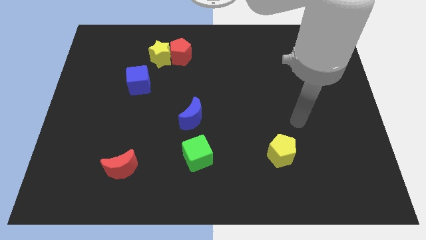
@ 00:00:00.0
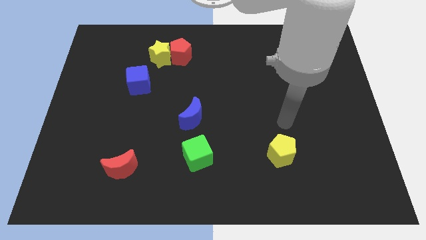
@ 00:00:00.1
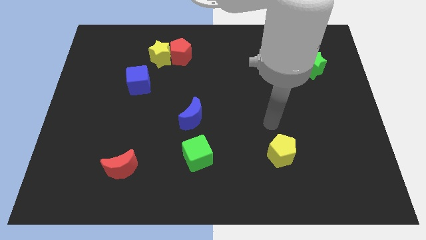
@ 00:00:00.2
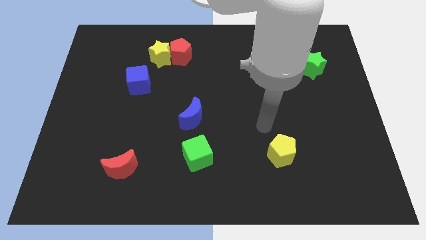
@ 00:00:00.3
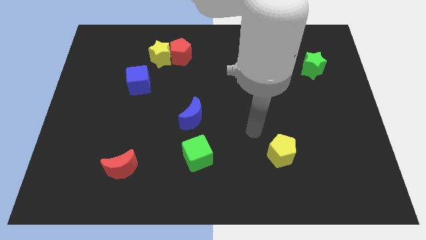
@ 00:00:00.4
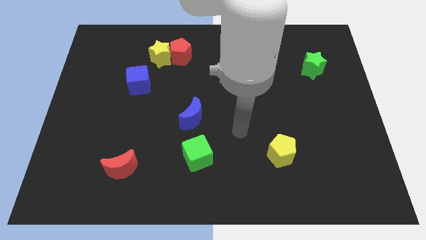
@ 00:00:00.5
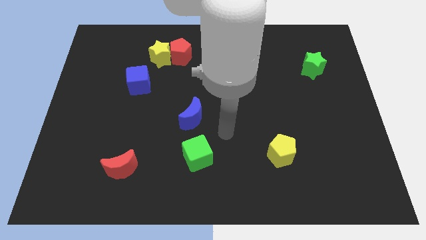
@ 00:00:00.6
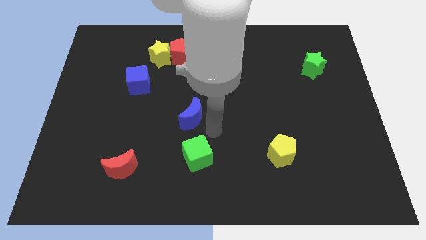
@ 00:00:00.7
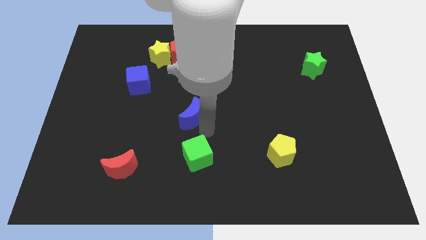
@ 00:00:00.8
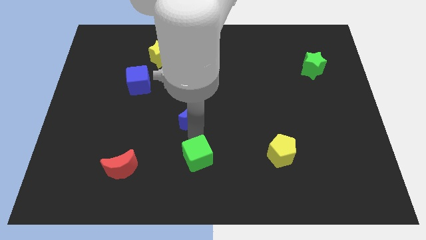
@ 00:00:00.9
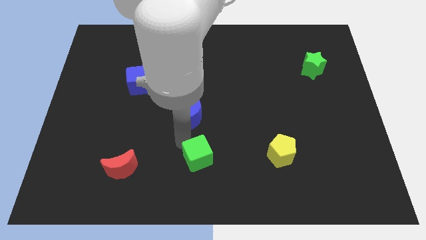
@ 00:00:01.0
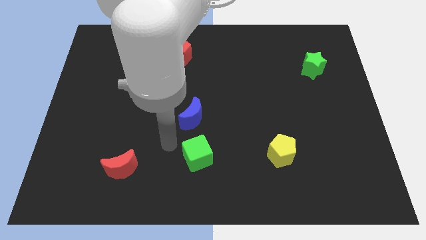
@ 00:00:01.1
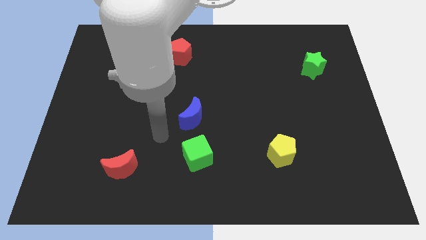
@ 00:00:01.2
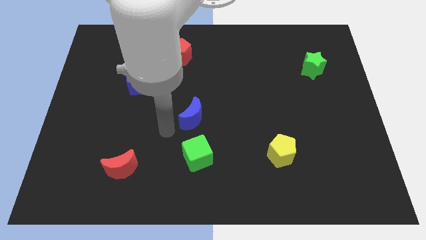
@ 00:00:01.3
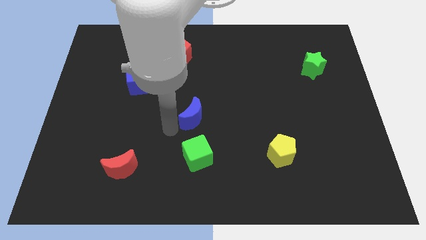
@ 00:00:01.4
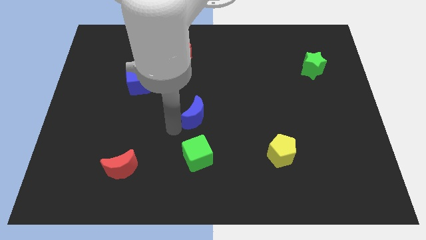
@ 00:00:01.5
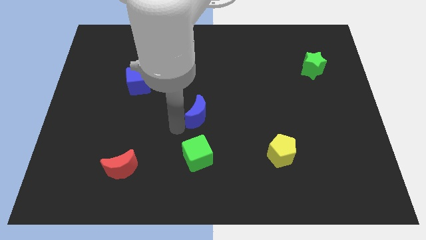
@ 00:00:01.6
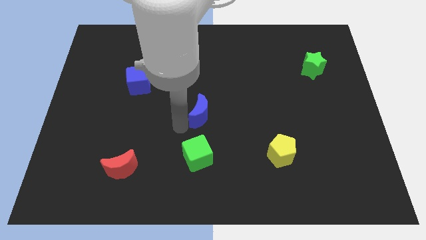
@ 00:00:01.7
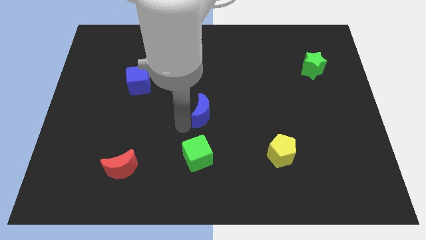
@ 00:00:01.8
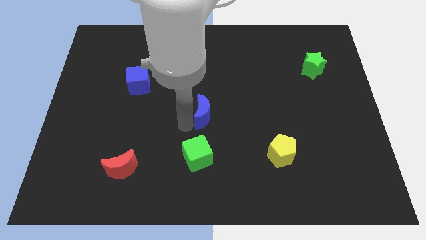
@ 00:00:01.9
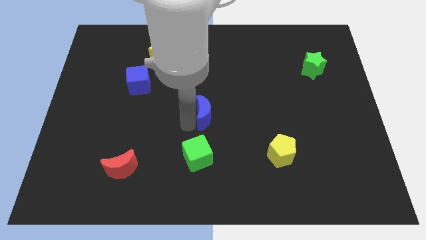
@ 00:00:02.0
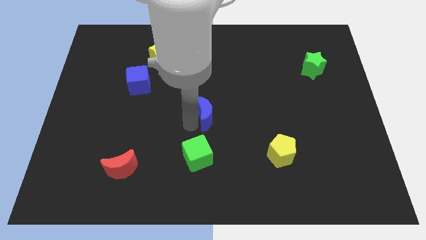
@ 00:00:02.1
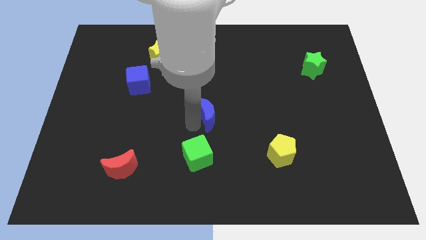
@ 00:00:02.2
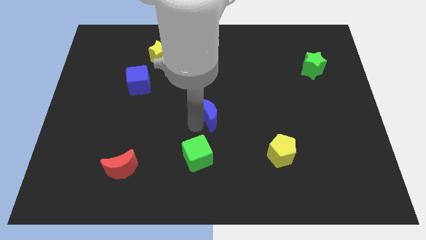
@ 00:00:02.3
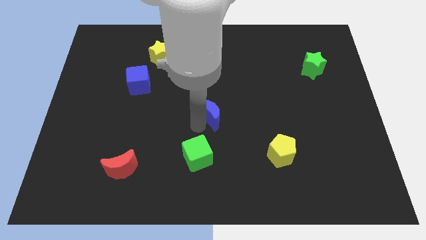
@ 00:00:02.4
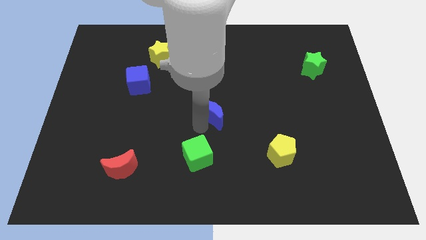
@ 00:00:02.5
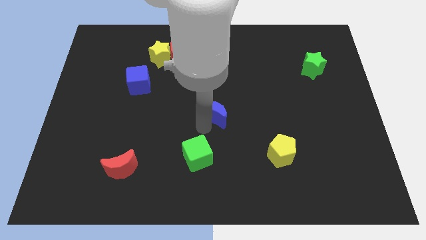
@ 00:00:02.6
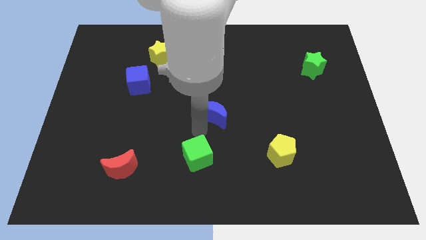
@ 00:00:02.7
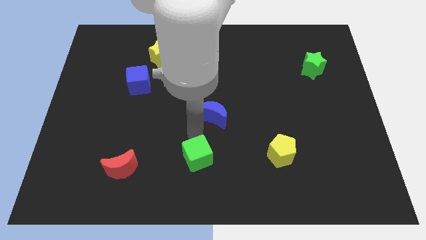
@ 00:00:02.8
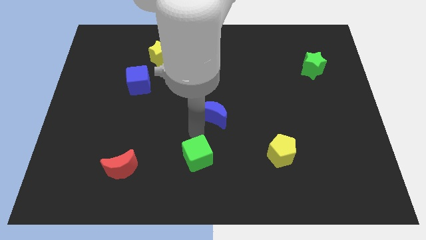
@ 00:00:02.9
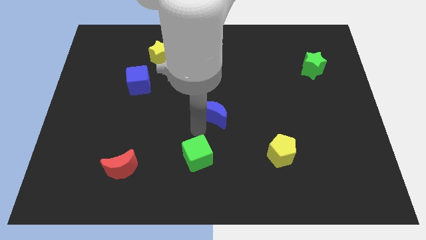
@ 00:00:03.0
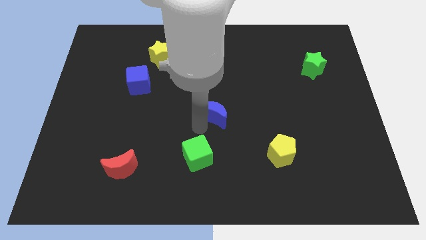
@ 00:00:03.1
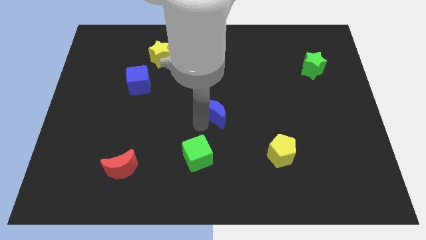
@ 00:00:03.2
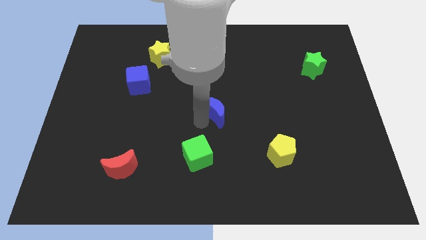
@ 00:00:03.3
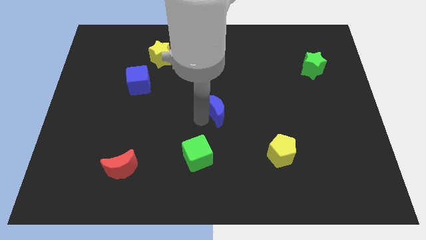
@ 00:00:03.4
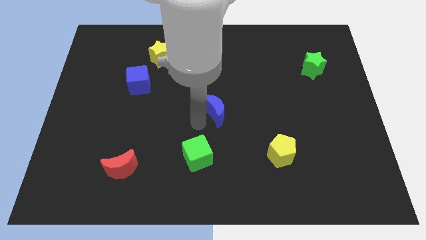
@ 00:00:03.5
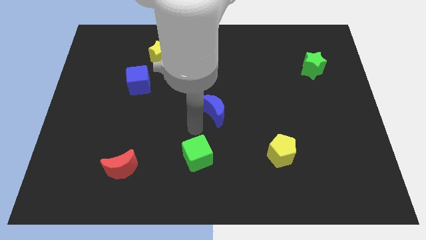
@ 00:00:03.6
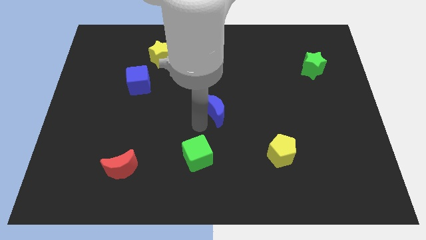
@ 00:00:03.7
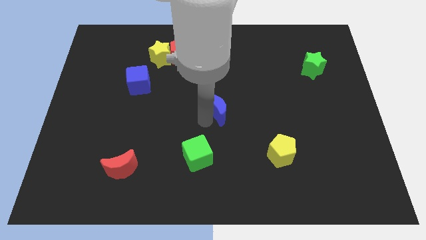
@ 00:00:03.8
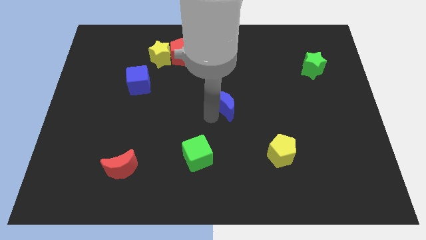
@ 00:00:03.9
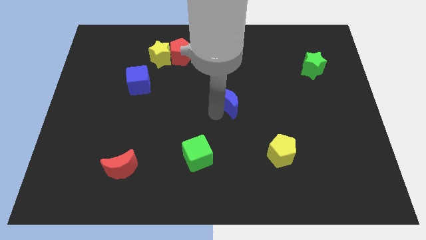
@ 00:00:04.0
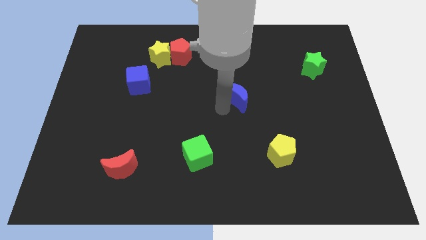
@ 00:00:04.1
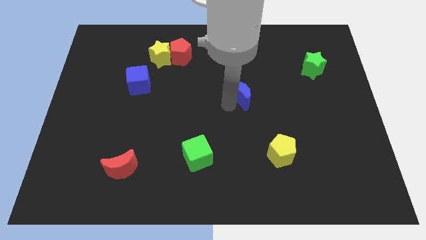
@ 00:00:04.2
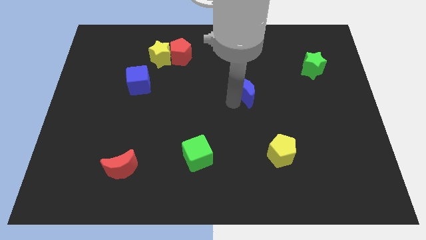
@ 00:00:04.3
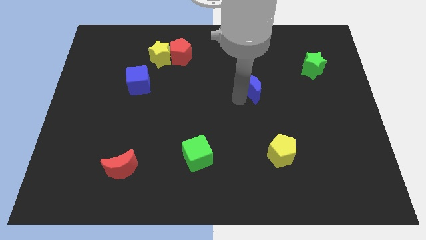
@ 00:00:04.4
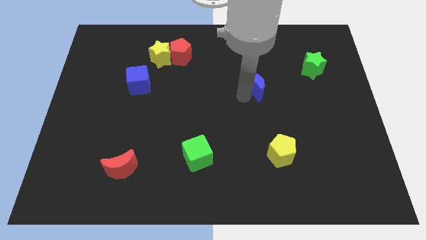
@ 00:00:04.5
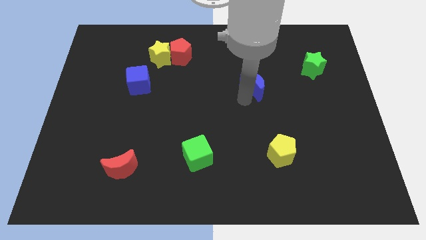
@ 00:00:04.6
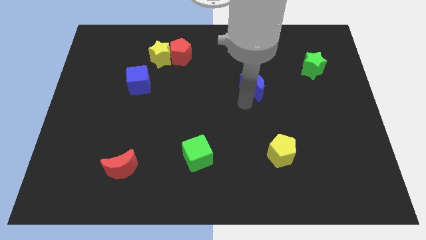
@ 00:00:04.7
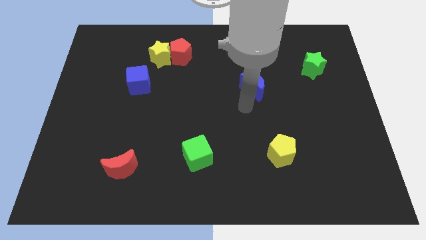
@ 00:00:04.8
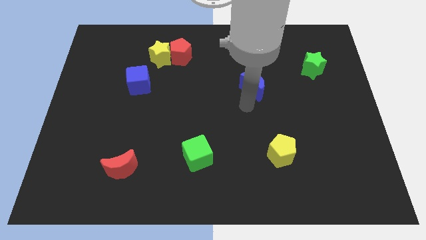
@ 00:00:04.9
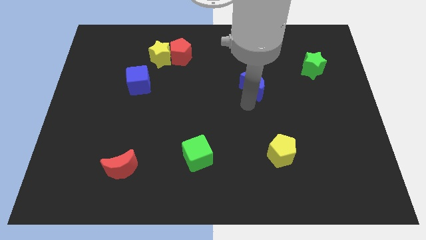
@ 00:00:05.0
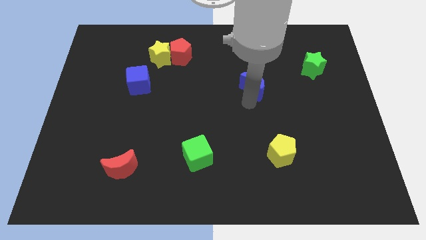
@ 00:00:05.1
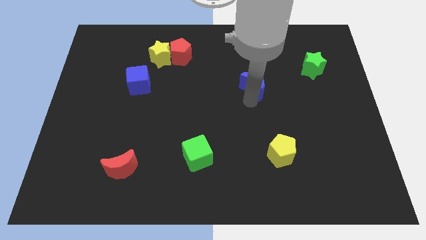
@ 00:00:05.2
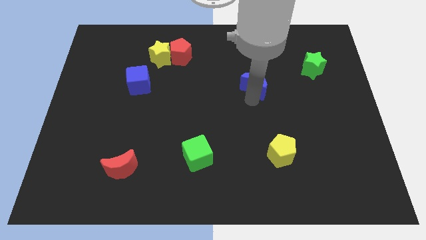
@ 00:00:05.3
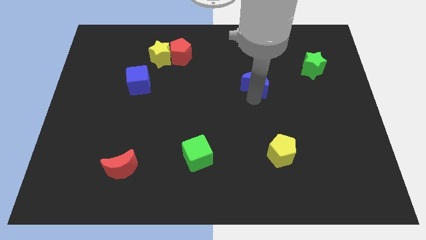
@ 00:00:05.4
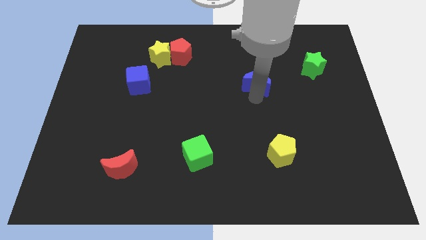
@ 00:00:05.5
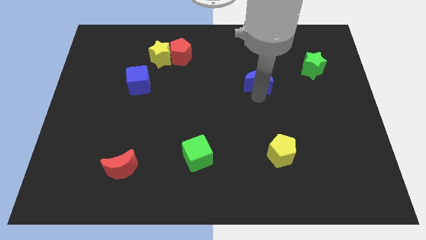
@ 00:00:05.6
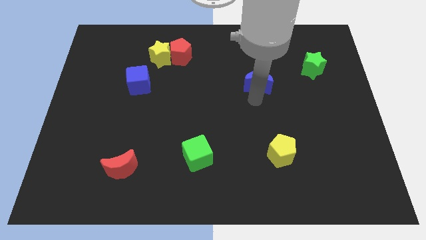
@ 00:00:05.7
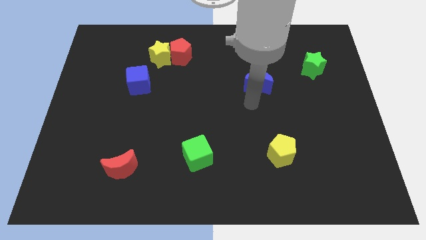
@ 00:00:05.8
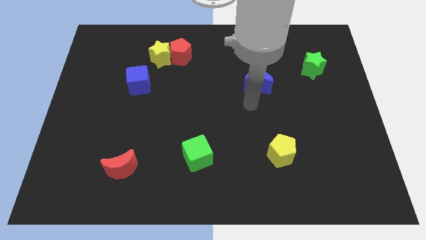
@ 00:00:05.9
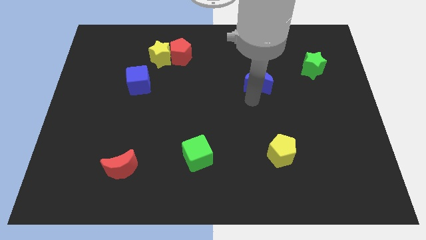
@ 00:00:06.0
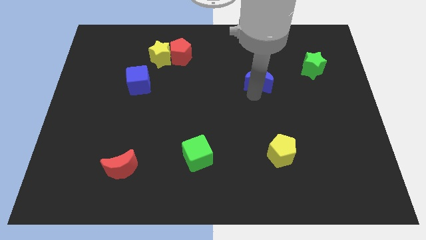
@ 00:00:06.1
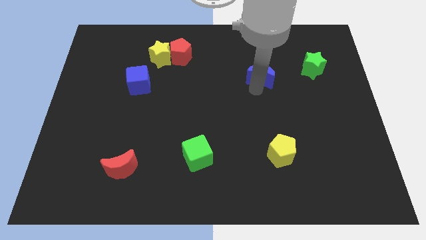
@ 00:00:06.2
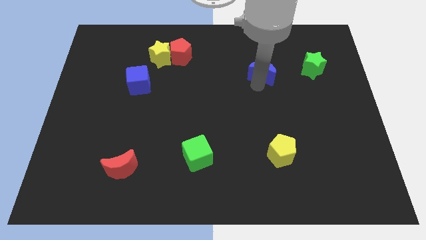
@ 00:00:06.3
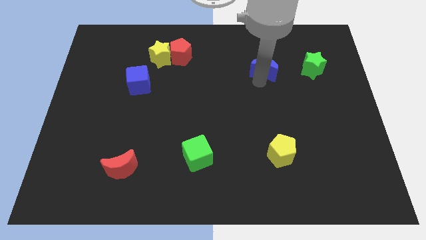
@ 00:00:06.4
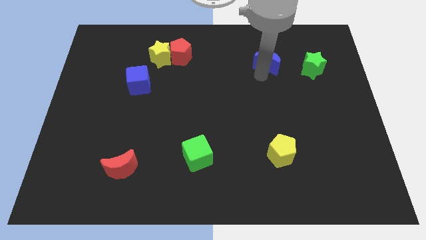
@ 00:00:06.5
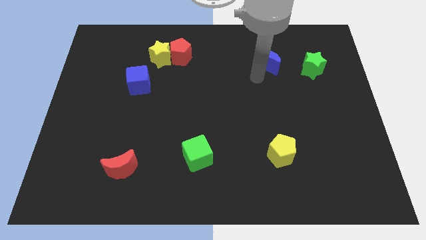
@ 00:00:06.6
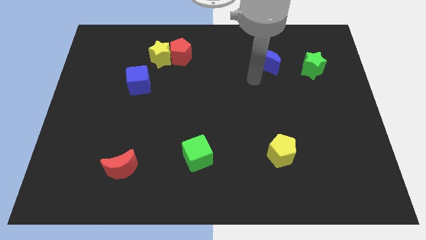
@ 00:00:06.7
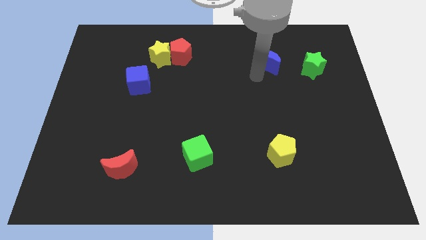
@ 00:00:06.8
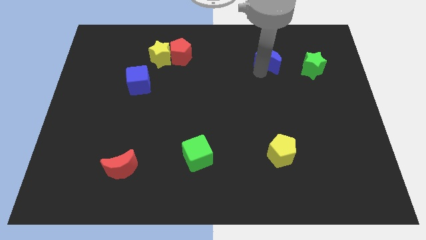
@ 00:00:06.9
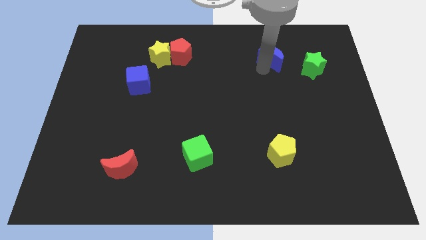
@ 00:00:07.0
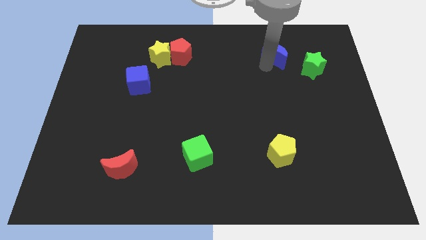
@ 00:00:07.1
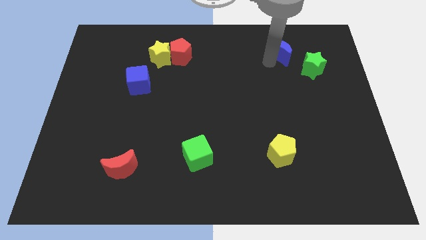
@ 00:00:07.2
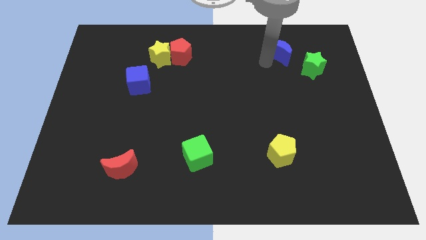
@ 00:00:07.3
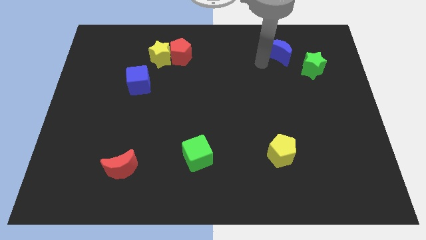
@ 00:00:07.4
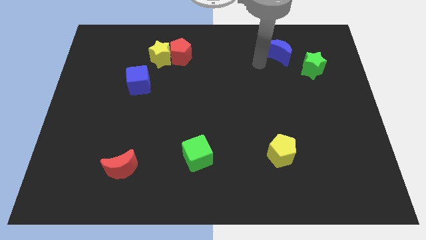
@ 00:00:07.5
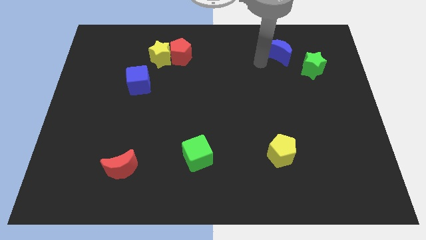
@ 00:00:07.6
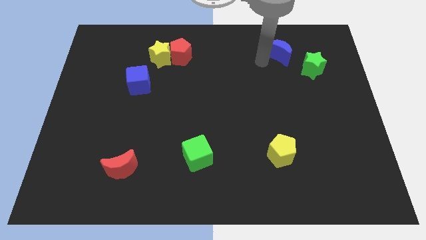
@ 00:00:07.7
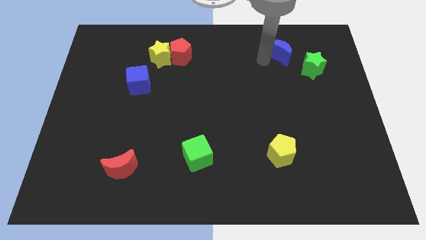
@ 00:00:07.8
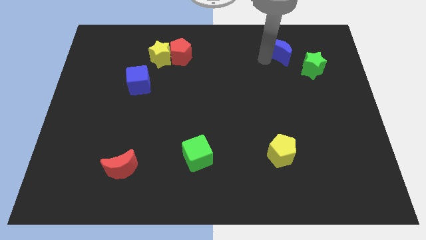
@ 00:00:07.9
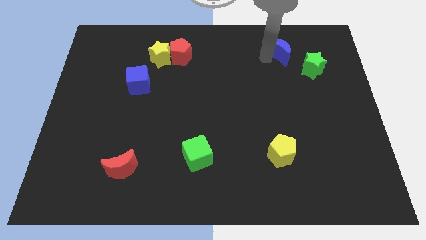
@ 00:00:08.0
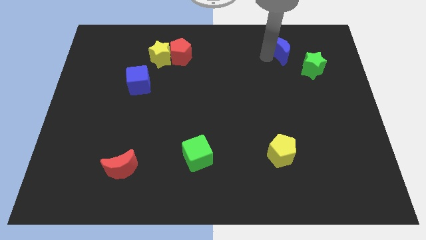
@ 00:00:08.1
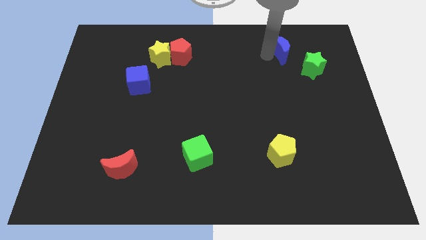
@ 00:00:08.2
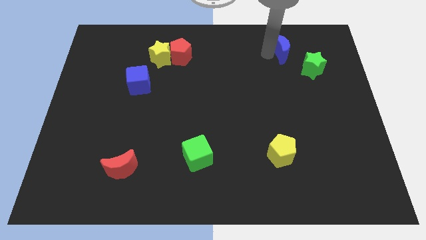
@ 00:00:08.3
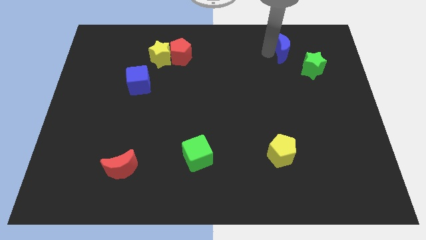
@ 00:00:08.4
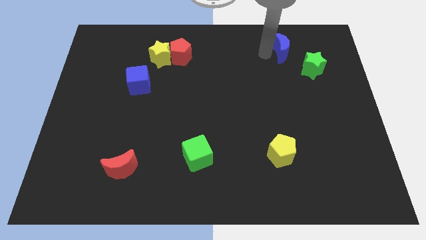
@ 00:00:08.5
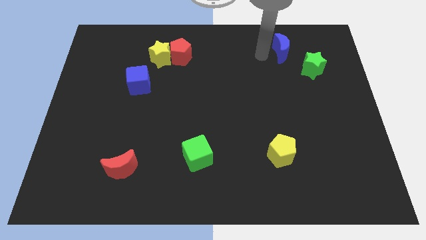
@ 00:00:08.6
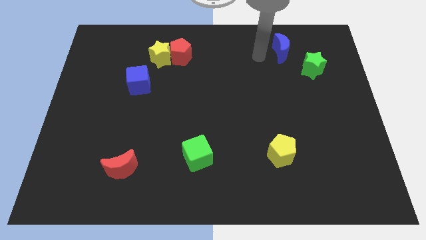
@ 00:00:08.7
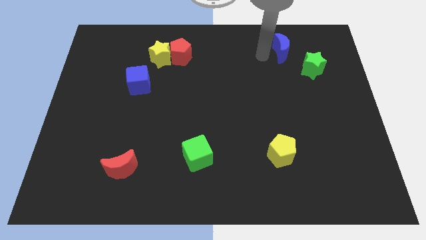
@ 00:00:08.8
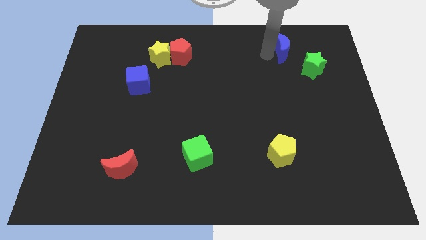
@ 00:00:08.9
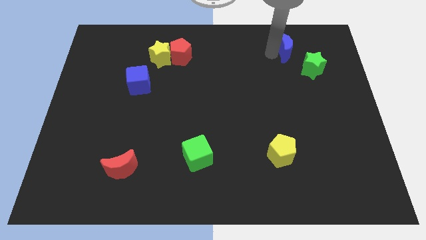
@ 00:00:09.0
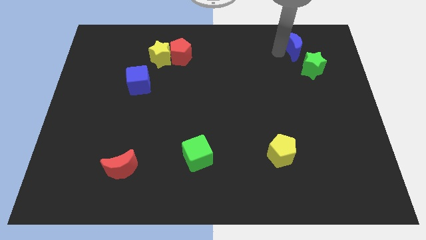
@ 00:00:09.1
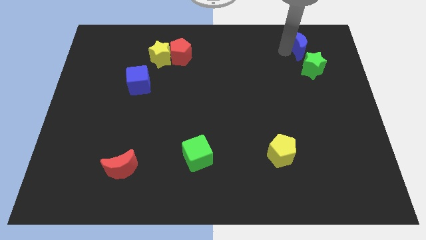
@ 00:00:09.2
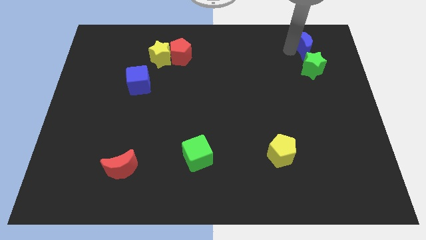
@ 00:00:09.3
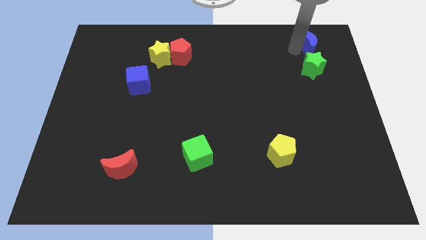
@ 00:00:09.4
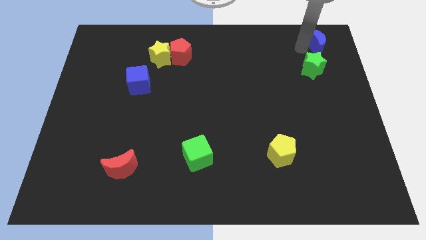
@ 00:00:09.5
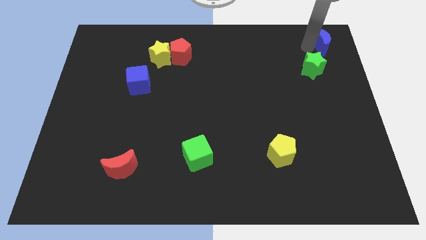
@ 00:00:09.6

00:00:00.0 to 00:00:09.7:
put the blue moon to the top right
